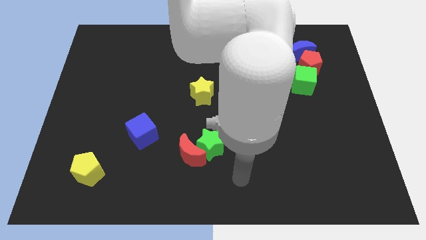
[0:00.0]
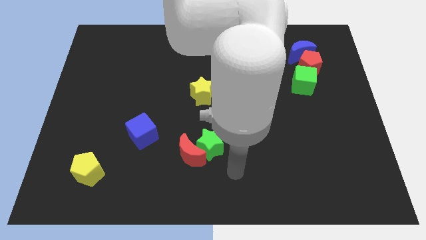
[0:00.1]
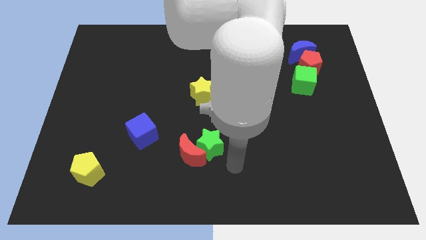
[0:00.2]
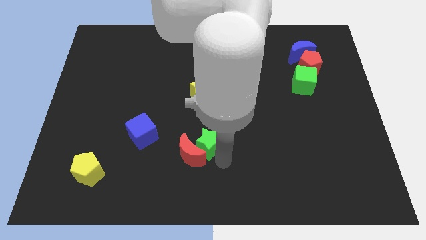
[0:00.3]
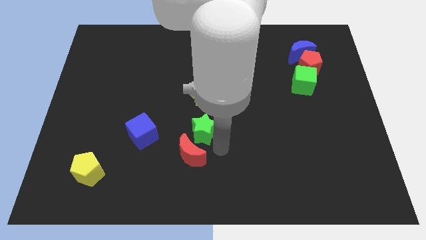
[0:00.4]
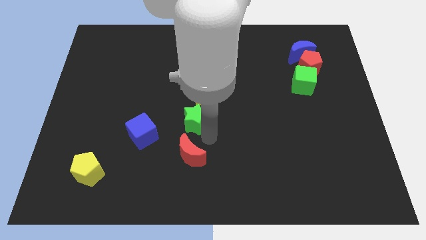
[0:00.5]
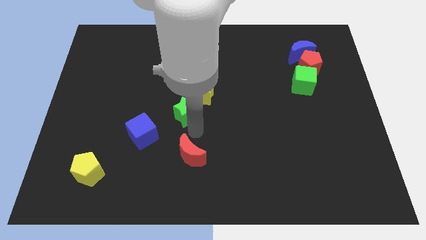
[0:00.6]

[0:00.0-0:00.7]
pull the red moon apart from the green star

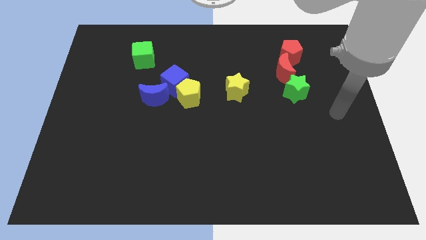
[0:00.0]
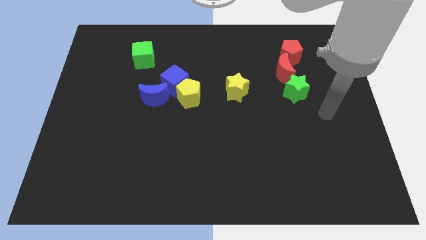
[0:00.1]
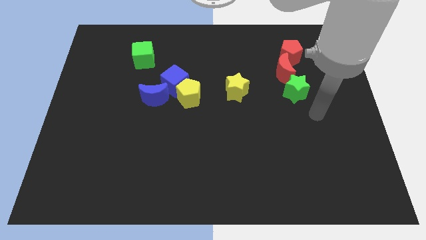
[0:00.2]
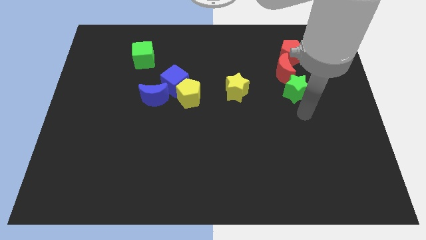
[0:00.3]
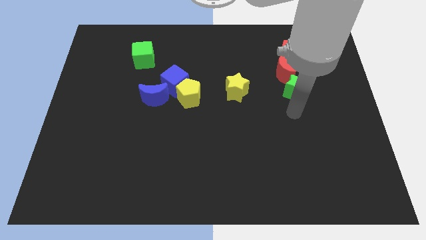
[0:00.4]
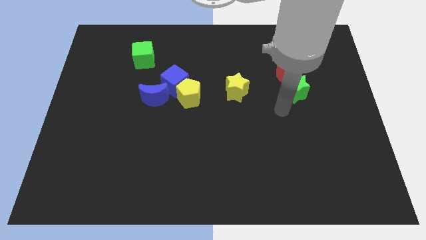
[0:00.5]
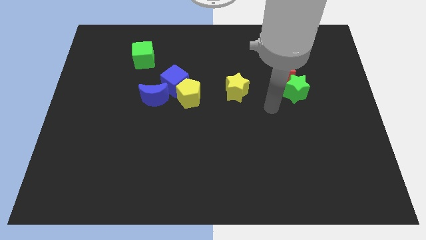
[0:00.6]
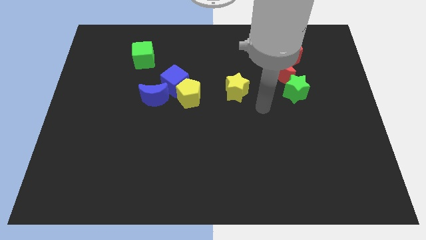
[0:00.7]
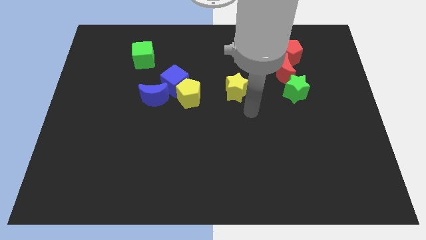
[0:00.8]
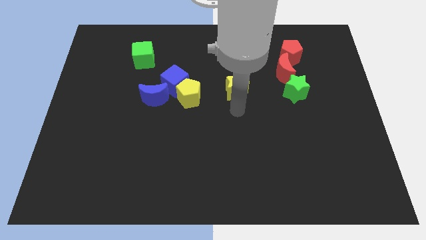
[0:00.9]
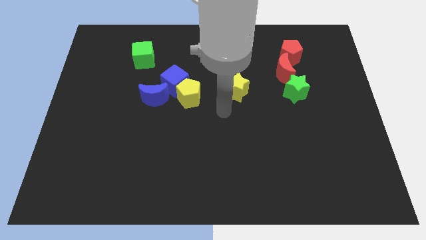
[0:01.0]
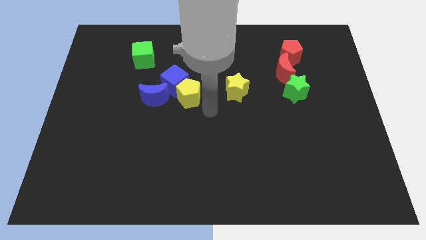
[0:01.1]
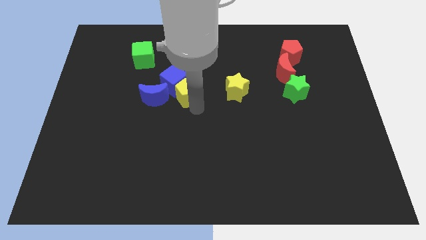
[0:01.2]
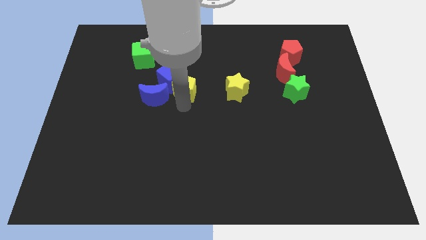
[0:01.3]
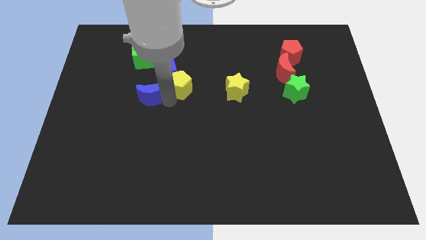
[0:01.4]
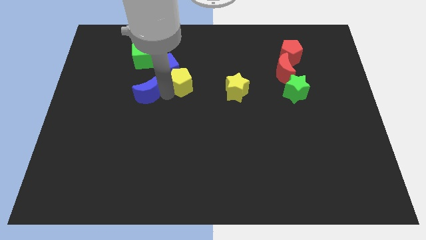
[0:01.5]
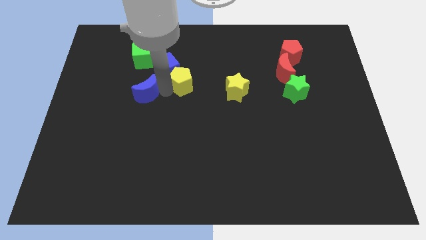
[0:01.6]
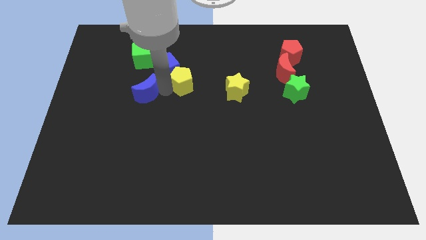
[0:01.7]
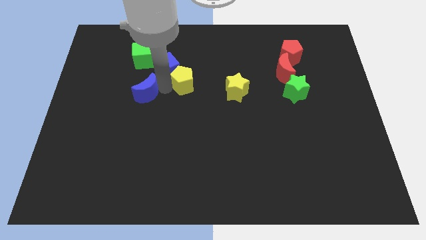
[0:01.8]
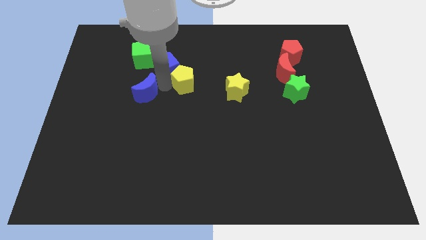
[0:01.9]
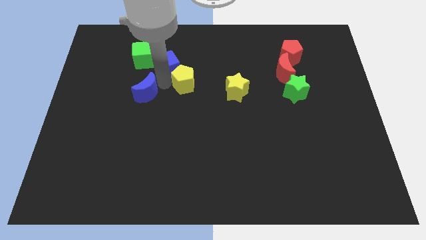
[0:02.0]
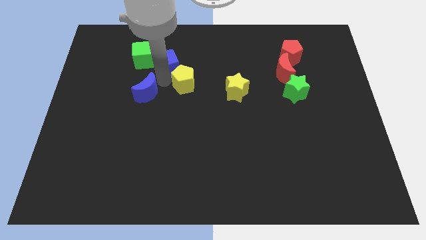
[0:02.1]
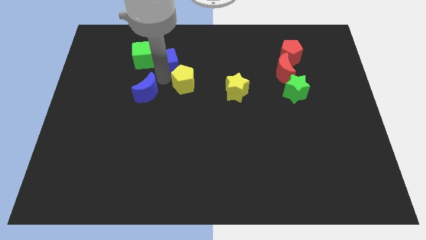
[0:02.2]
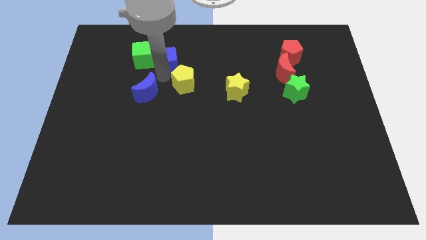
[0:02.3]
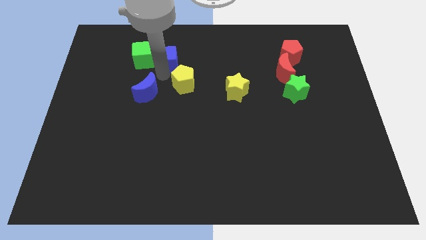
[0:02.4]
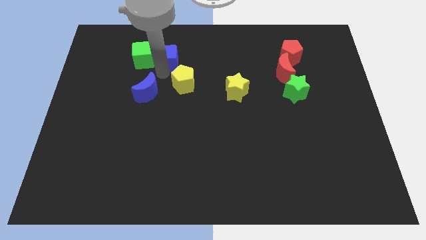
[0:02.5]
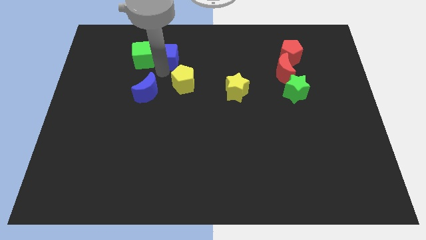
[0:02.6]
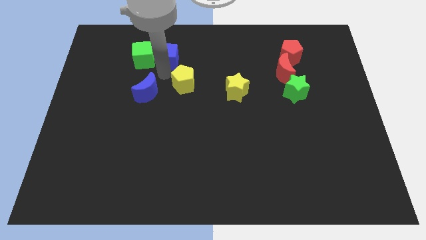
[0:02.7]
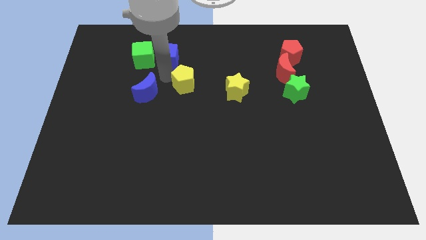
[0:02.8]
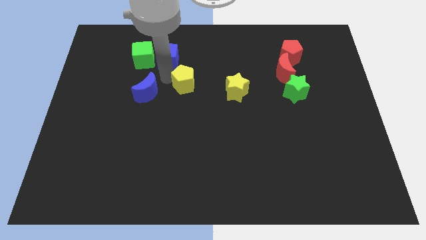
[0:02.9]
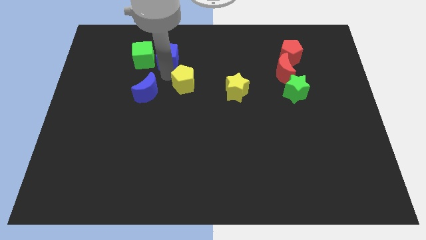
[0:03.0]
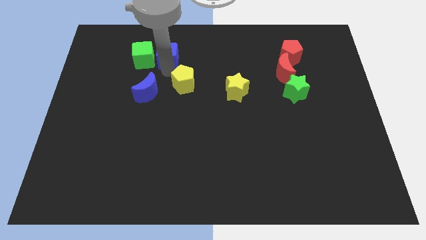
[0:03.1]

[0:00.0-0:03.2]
separate the blue cube from the yellow pentagon and blue moon

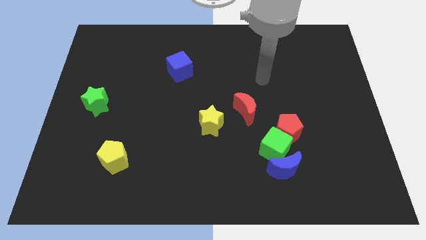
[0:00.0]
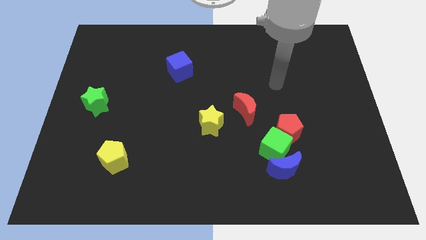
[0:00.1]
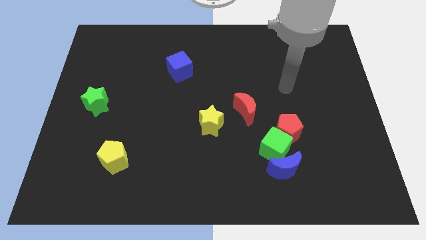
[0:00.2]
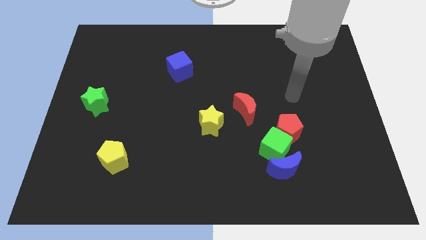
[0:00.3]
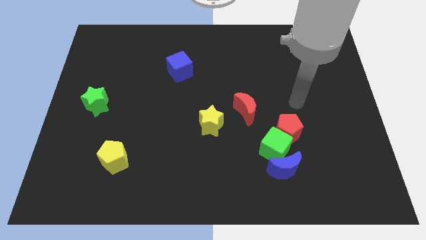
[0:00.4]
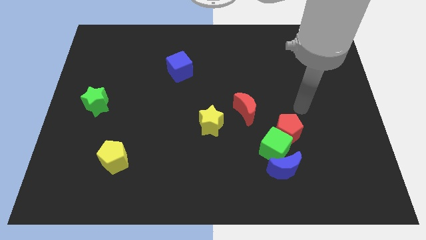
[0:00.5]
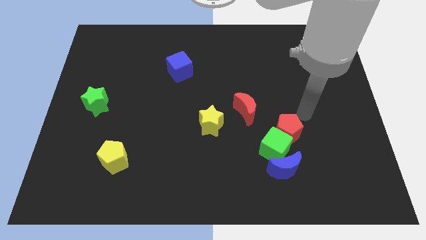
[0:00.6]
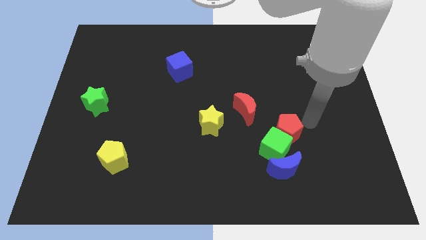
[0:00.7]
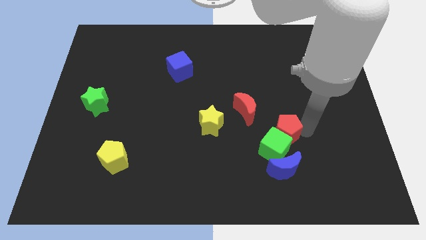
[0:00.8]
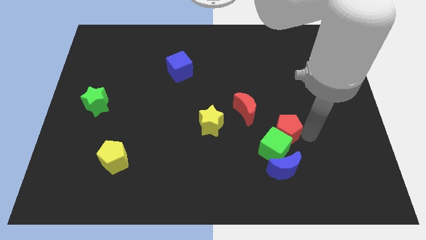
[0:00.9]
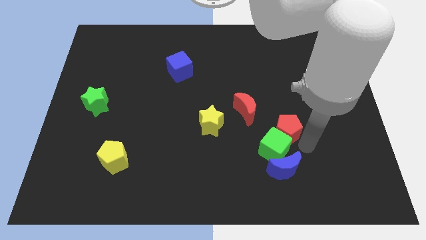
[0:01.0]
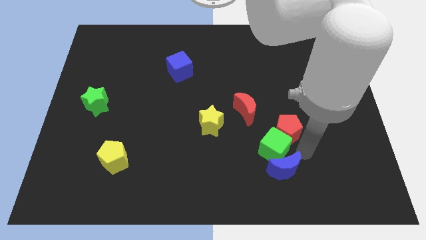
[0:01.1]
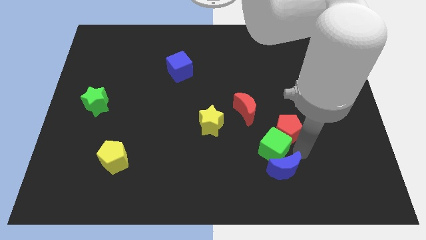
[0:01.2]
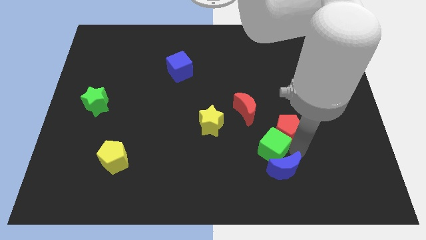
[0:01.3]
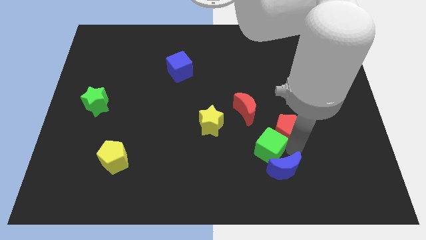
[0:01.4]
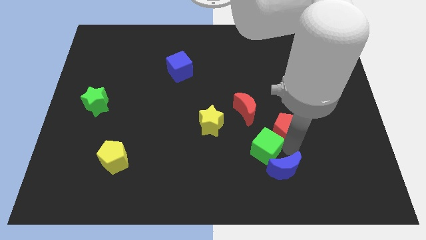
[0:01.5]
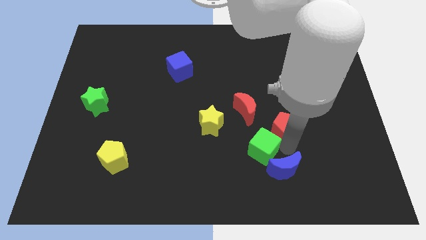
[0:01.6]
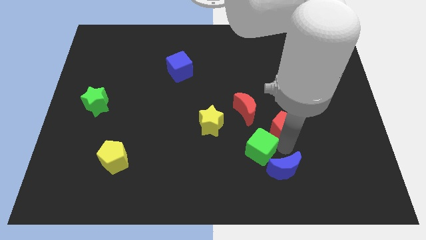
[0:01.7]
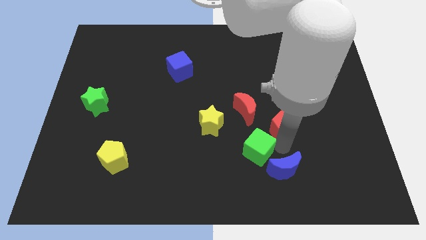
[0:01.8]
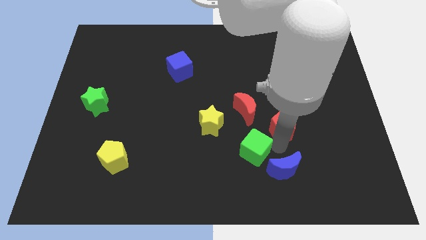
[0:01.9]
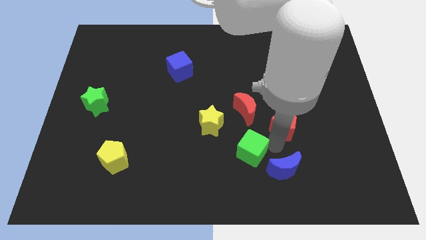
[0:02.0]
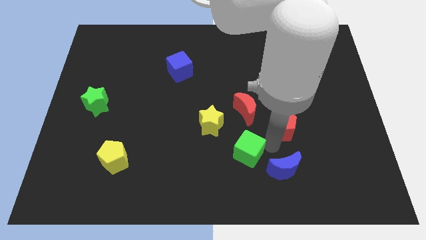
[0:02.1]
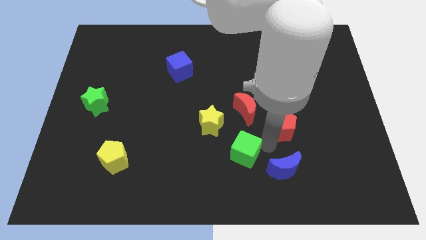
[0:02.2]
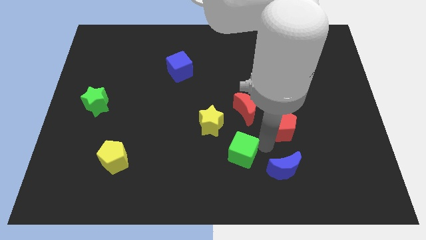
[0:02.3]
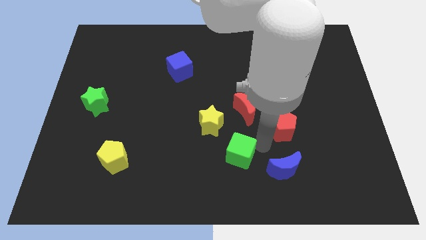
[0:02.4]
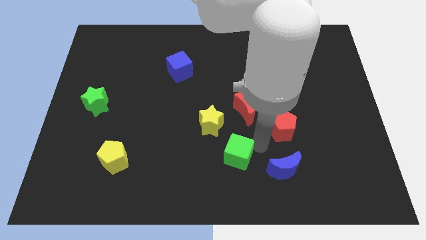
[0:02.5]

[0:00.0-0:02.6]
pull the green cube apart from the blue moon and red pentagon

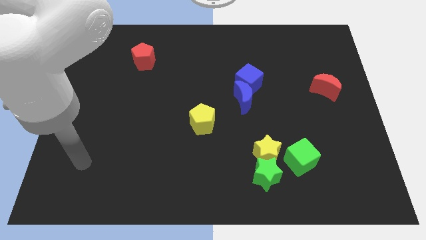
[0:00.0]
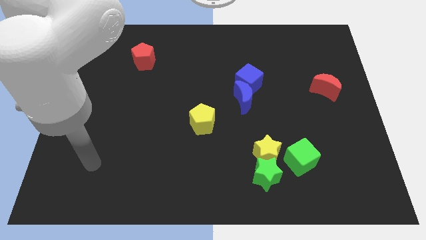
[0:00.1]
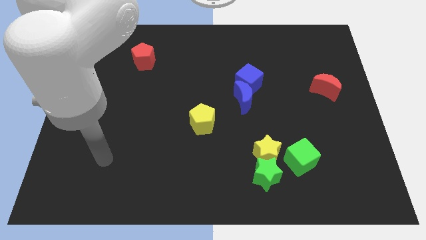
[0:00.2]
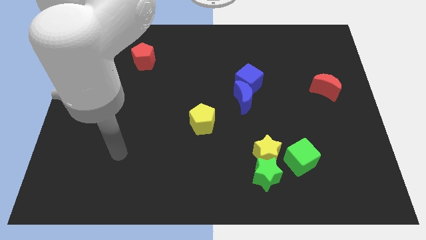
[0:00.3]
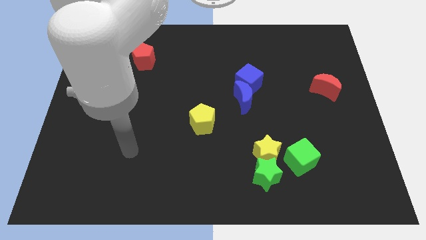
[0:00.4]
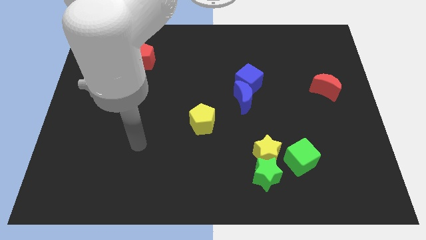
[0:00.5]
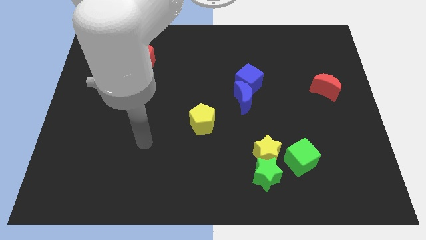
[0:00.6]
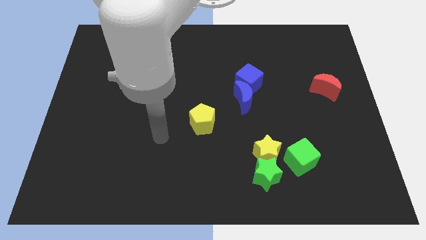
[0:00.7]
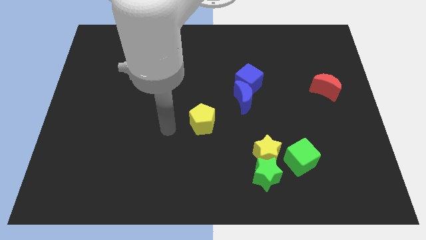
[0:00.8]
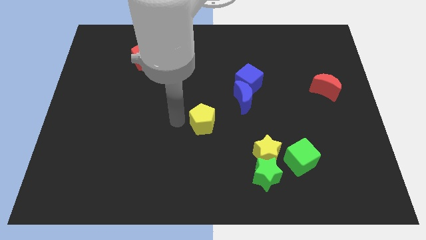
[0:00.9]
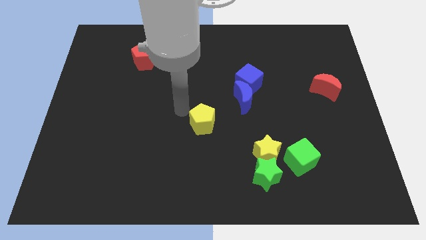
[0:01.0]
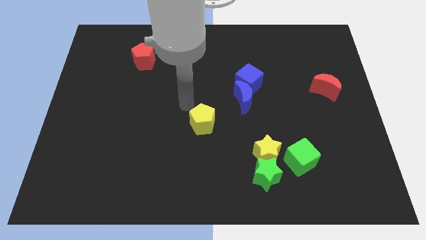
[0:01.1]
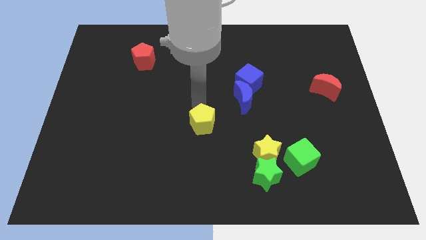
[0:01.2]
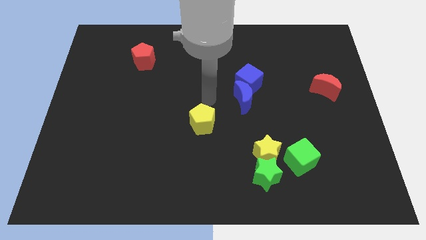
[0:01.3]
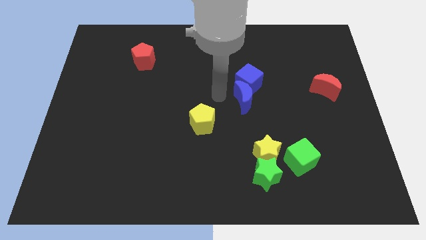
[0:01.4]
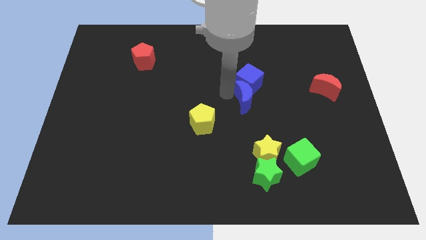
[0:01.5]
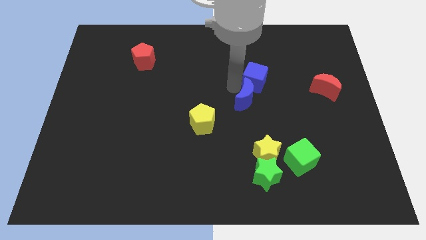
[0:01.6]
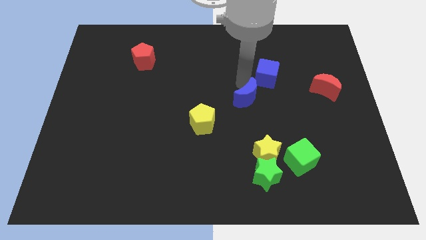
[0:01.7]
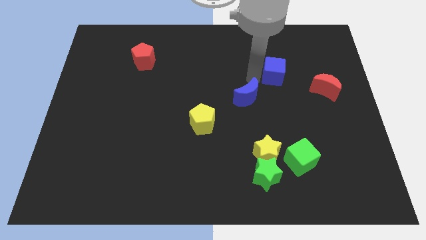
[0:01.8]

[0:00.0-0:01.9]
pull the blue moon apart from the blue cube

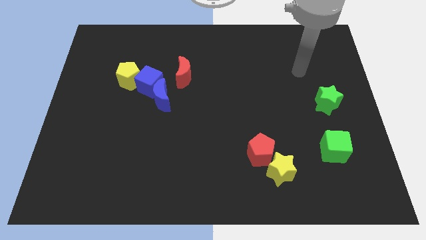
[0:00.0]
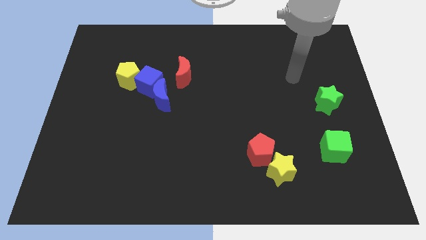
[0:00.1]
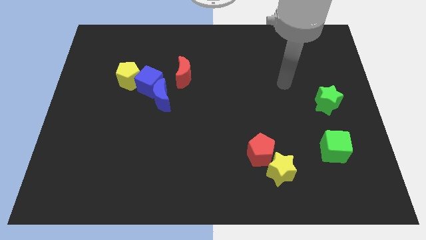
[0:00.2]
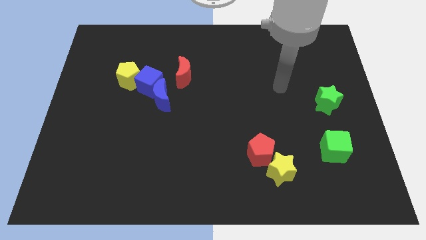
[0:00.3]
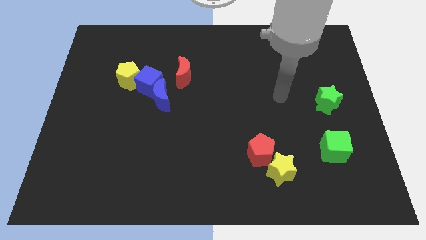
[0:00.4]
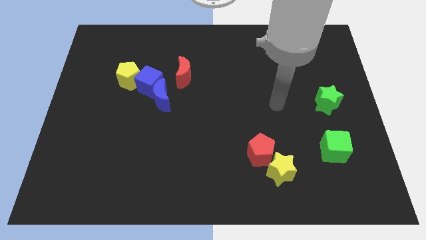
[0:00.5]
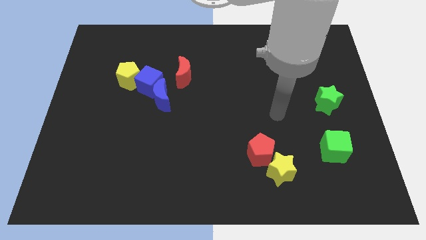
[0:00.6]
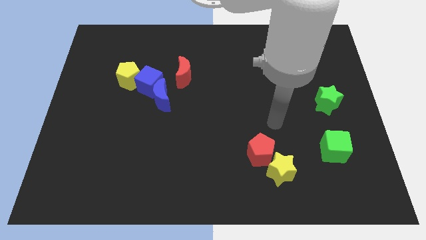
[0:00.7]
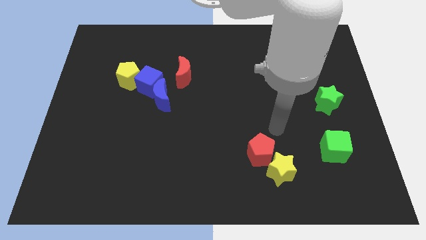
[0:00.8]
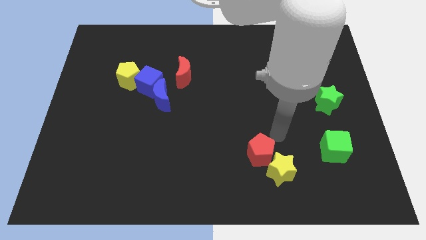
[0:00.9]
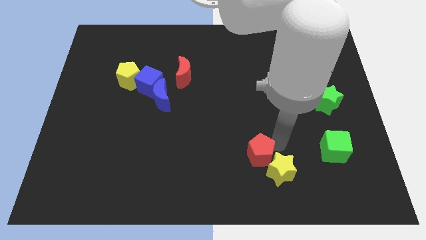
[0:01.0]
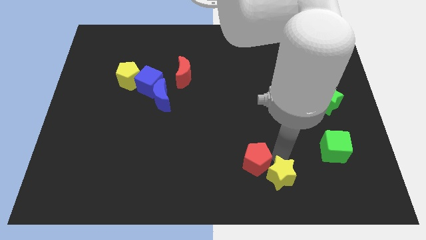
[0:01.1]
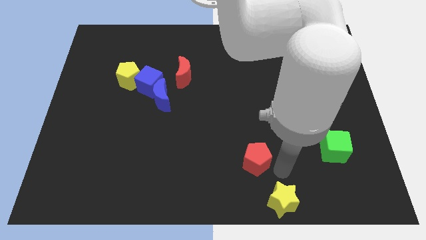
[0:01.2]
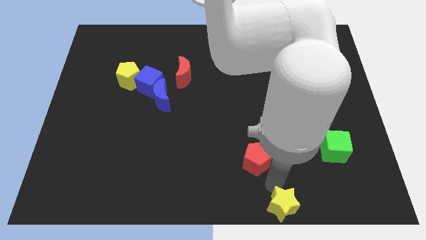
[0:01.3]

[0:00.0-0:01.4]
pull the red pentagon apart from the yellow star
